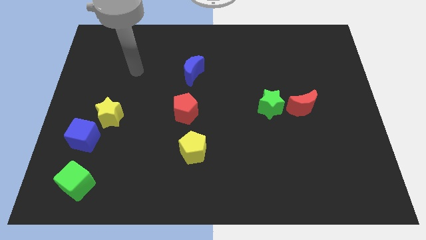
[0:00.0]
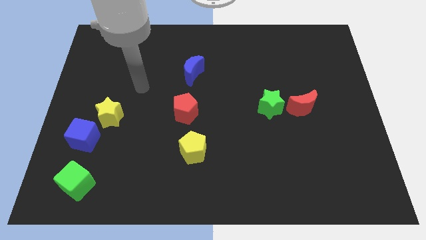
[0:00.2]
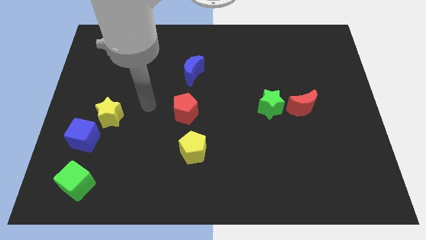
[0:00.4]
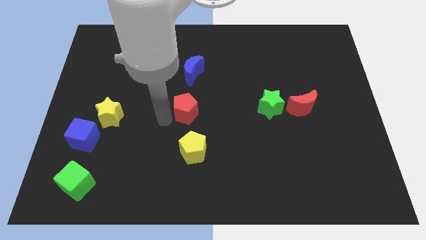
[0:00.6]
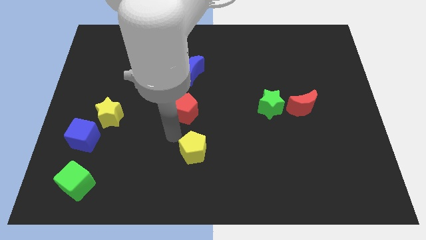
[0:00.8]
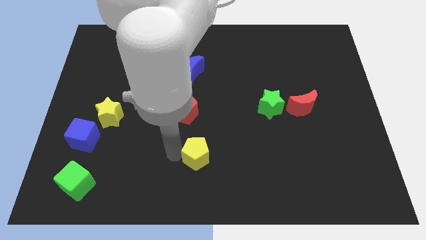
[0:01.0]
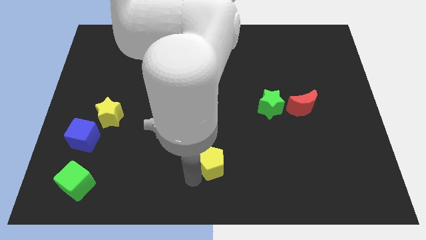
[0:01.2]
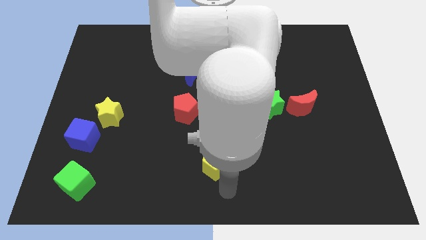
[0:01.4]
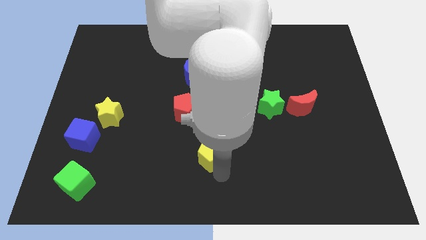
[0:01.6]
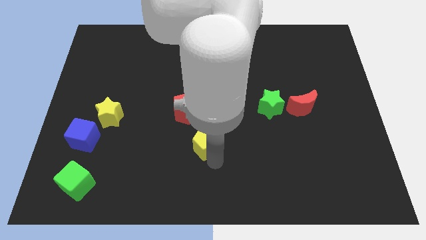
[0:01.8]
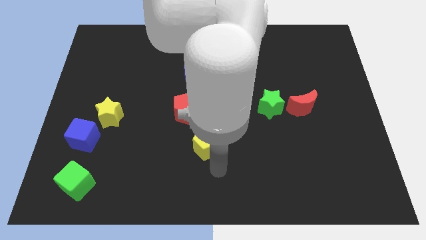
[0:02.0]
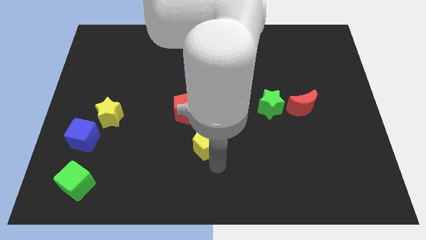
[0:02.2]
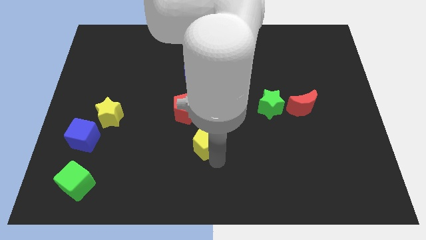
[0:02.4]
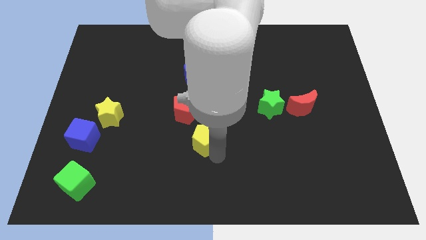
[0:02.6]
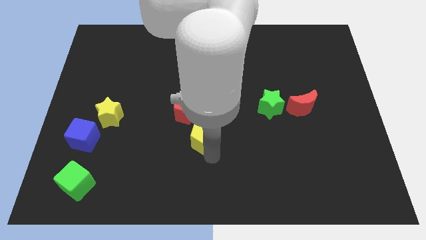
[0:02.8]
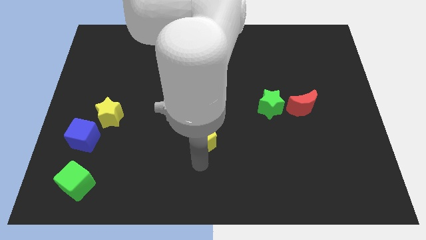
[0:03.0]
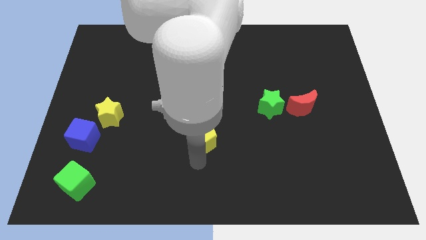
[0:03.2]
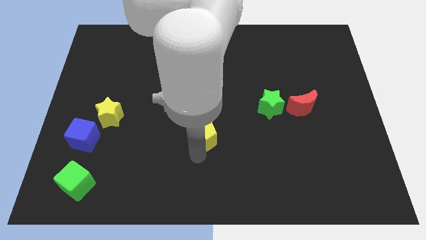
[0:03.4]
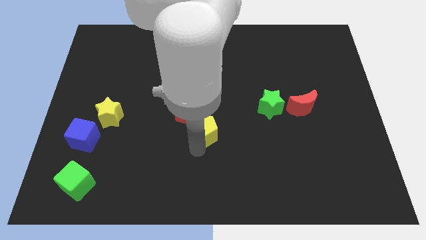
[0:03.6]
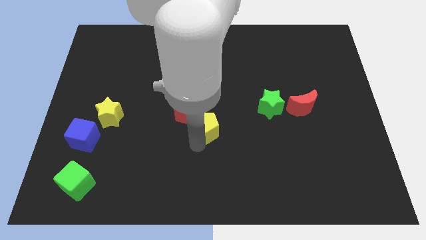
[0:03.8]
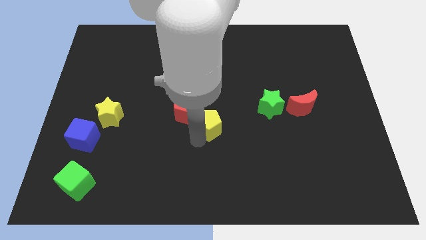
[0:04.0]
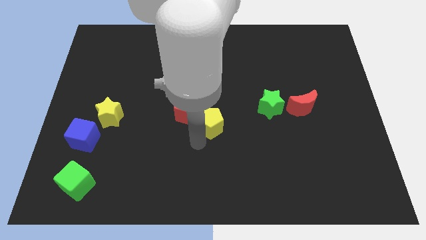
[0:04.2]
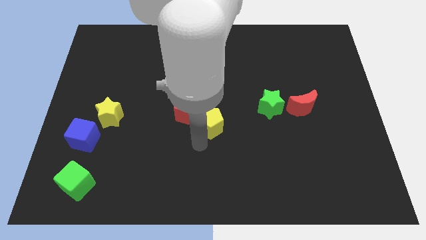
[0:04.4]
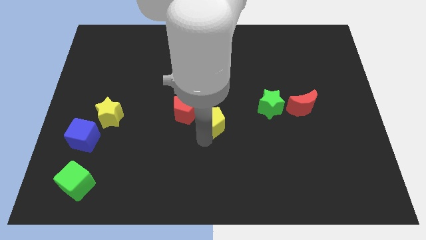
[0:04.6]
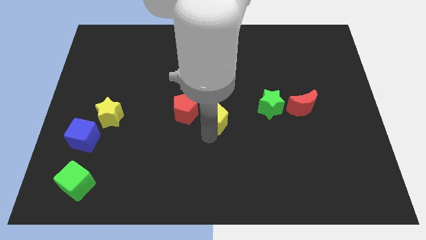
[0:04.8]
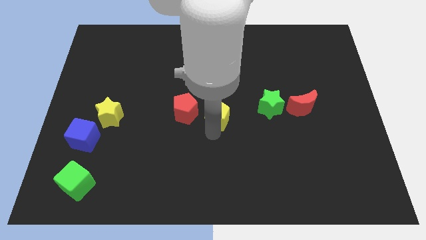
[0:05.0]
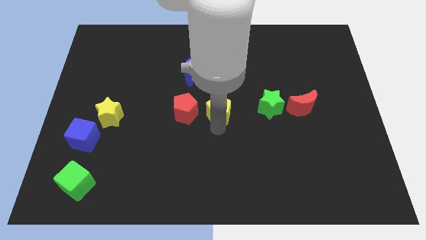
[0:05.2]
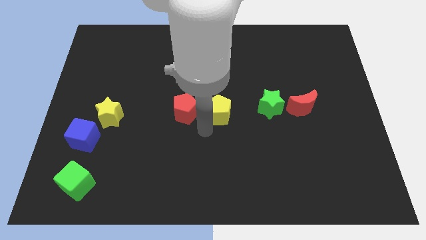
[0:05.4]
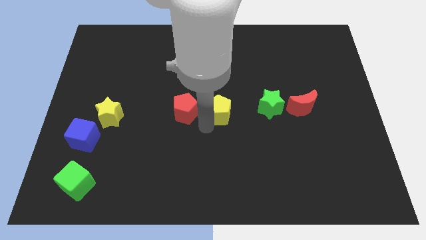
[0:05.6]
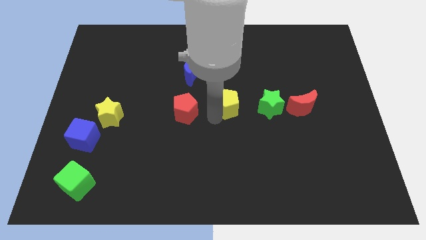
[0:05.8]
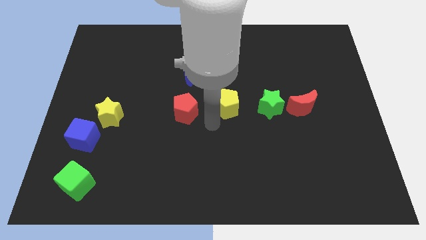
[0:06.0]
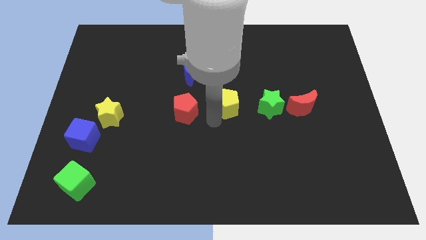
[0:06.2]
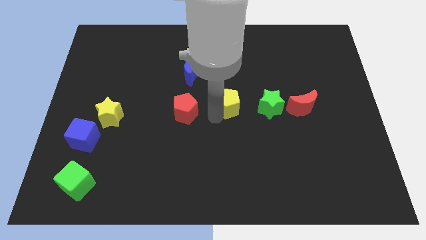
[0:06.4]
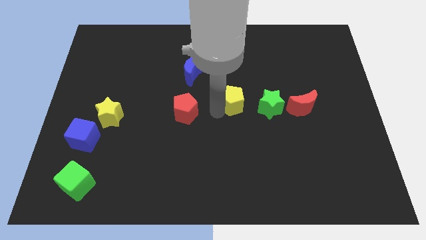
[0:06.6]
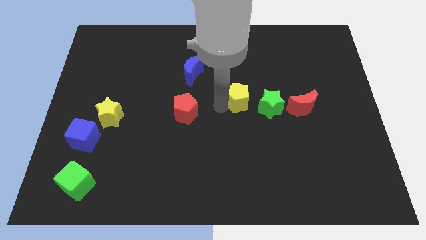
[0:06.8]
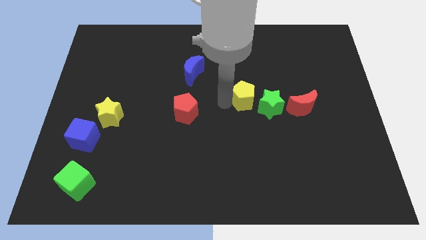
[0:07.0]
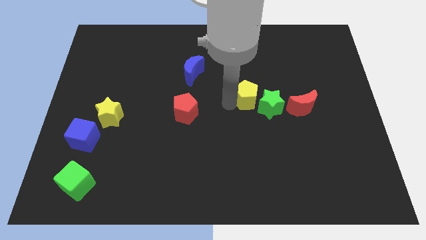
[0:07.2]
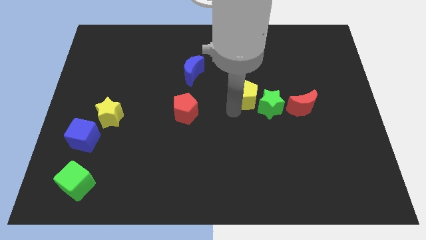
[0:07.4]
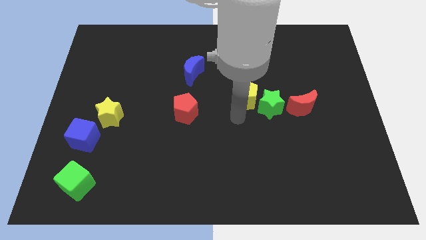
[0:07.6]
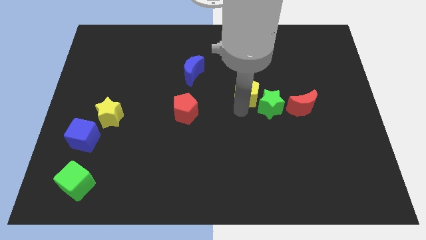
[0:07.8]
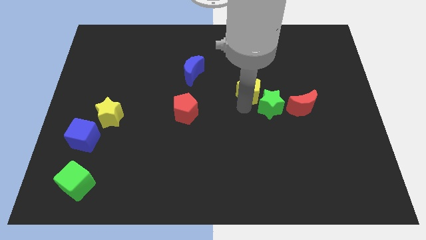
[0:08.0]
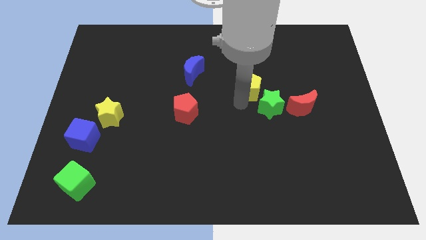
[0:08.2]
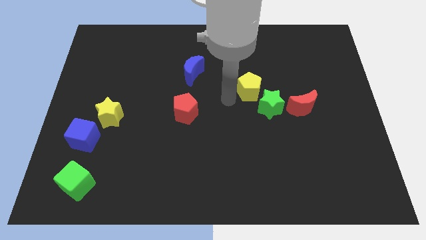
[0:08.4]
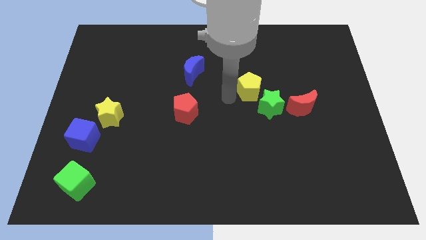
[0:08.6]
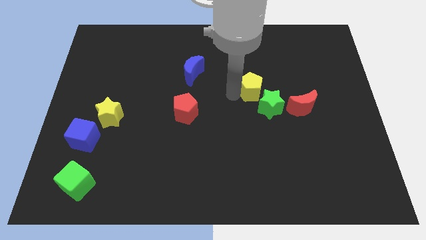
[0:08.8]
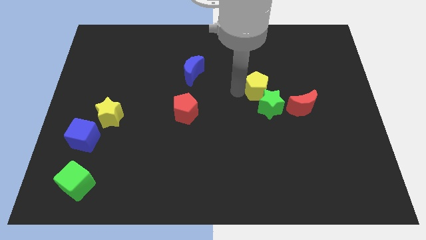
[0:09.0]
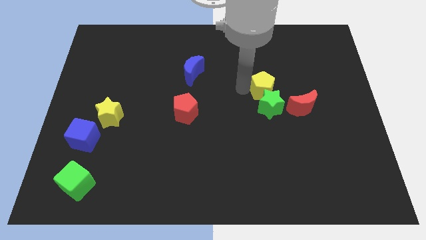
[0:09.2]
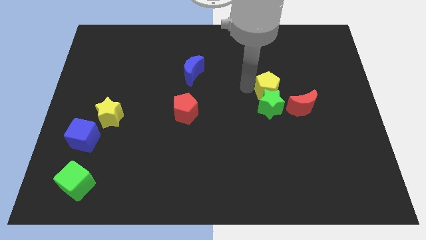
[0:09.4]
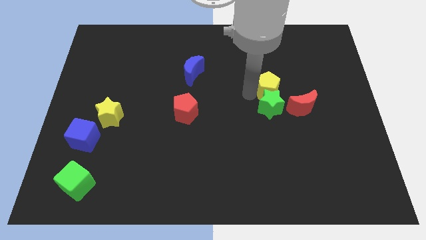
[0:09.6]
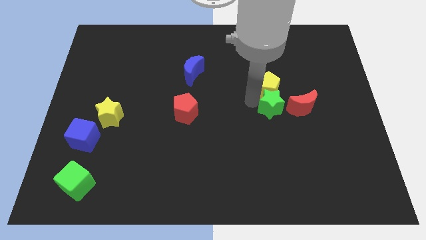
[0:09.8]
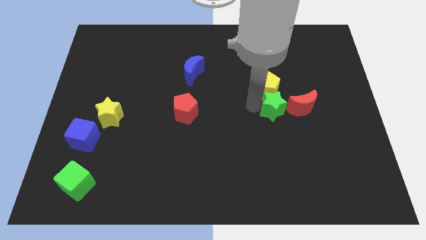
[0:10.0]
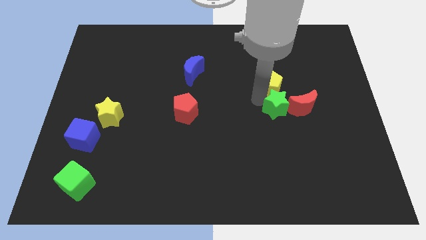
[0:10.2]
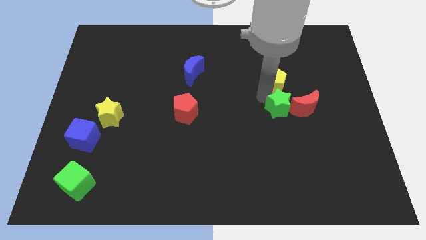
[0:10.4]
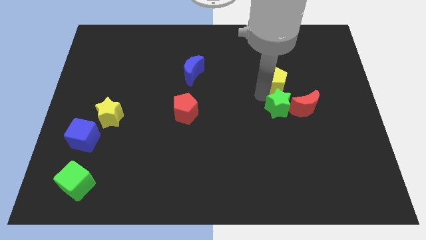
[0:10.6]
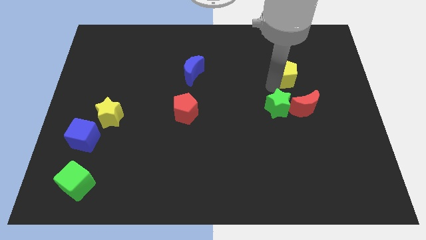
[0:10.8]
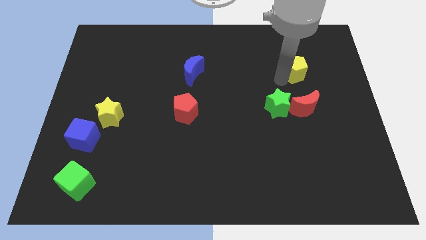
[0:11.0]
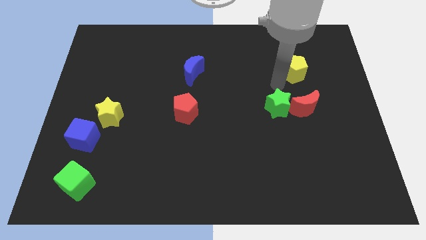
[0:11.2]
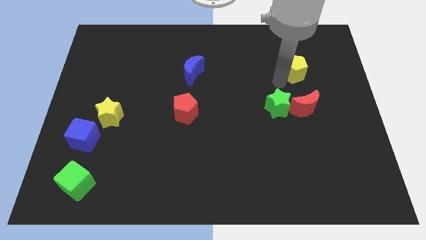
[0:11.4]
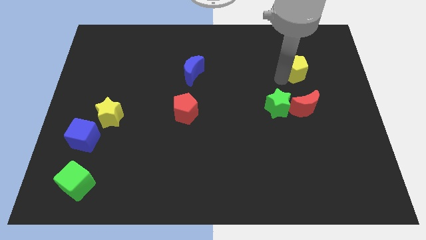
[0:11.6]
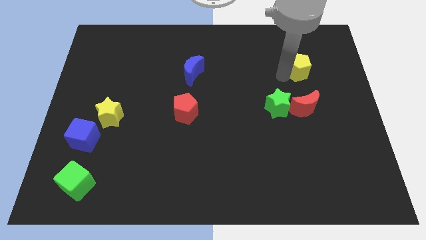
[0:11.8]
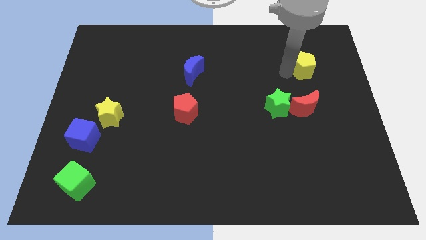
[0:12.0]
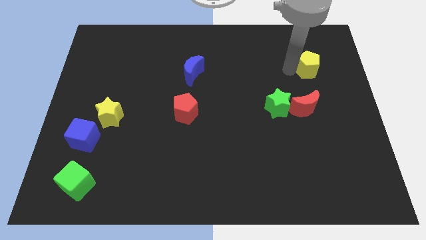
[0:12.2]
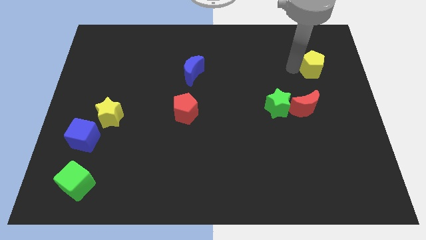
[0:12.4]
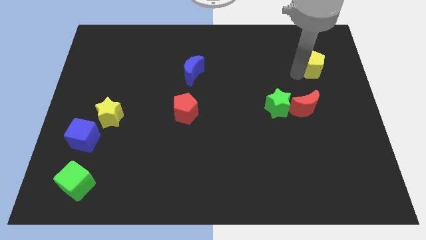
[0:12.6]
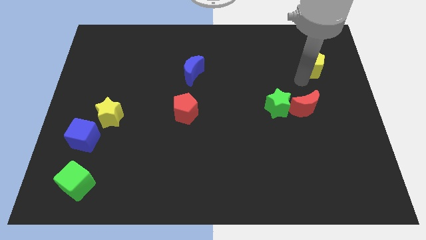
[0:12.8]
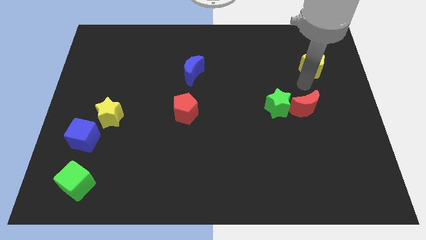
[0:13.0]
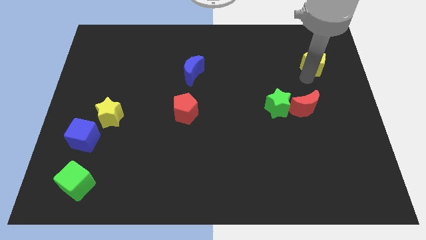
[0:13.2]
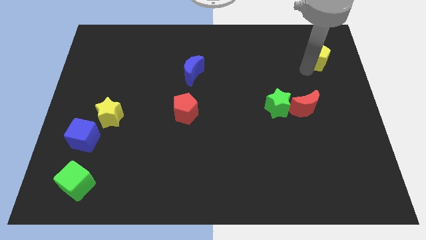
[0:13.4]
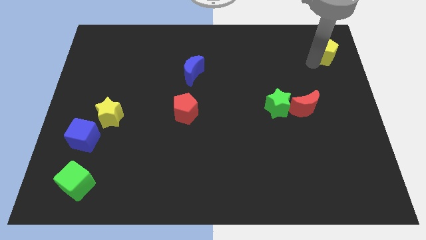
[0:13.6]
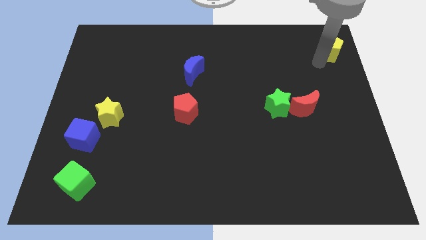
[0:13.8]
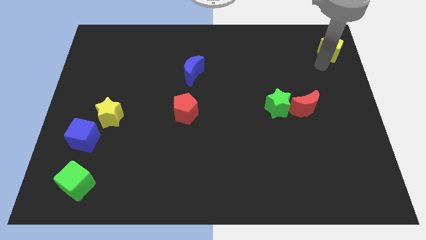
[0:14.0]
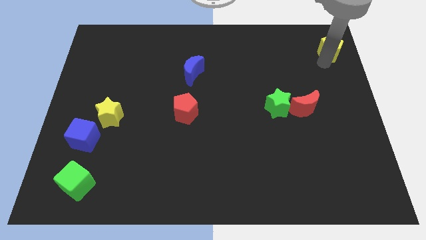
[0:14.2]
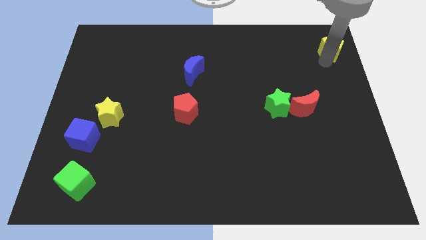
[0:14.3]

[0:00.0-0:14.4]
slide the yellow pentagon to the top right of the board
